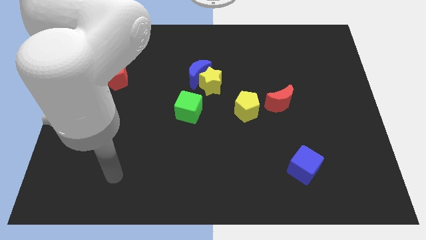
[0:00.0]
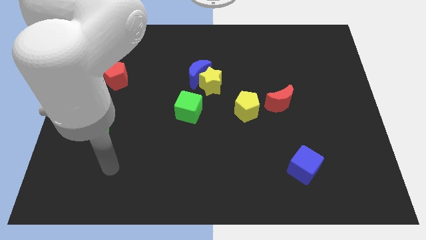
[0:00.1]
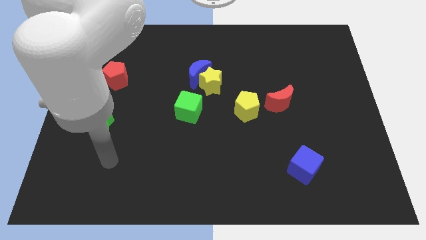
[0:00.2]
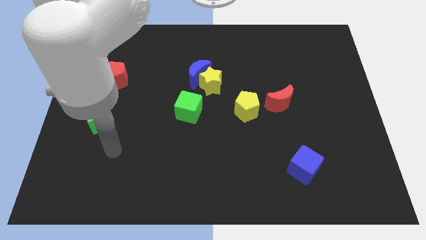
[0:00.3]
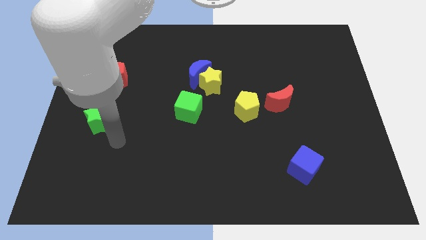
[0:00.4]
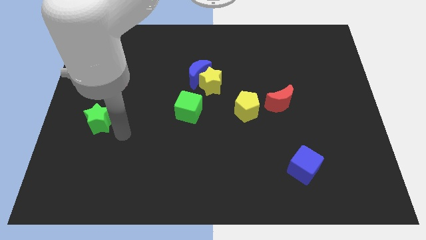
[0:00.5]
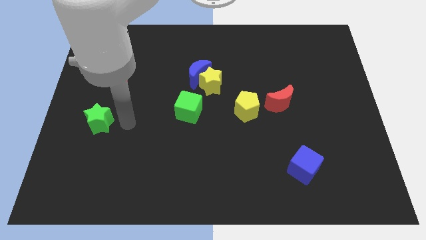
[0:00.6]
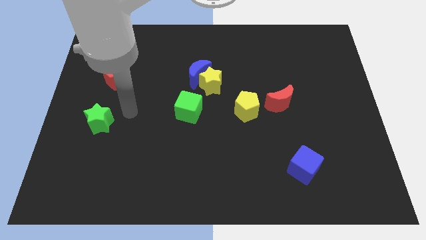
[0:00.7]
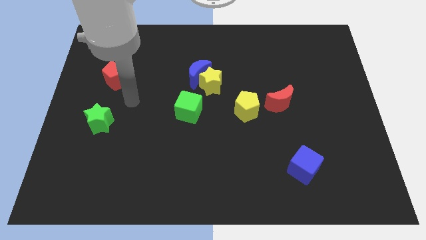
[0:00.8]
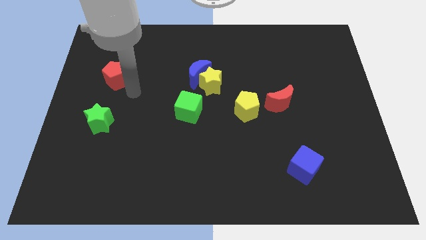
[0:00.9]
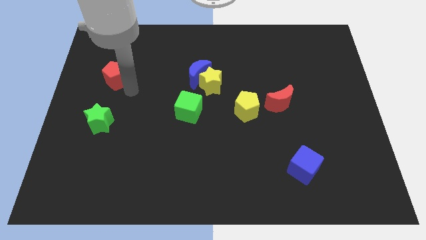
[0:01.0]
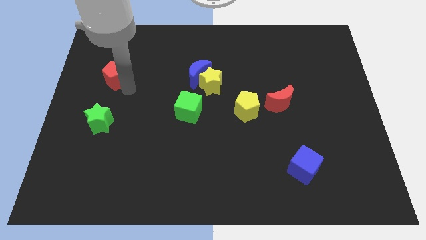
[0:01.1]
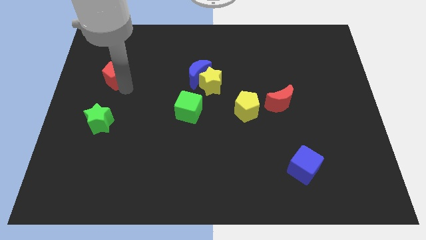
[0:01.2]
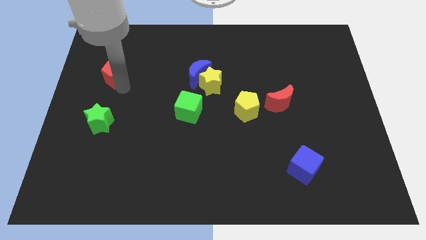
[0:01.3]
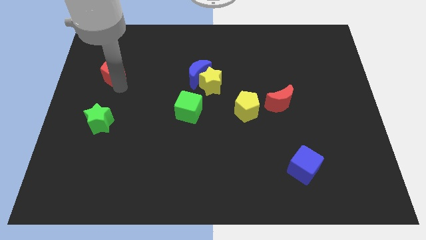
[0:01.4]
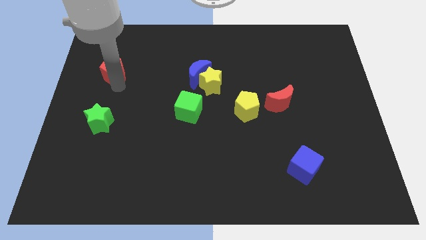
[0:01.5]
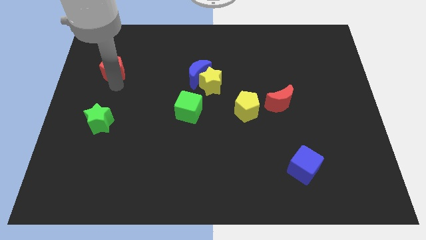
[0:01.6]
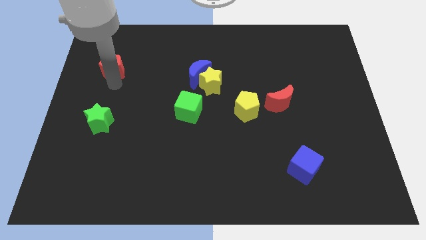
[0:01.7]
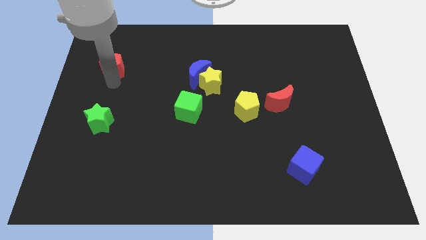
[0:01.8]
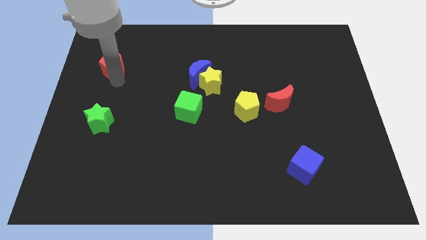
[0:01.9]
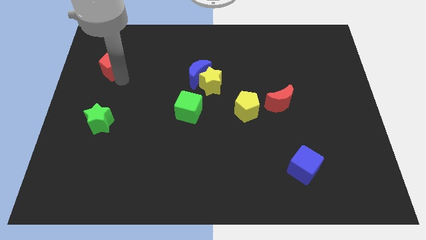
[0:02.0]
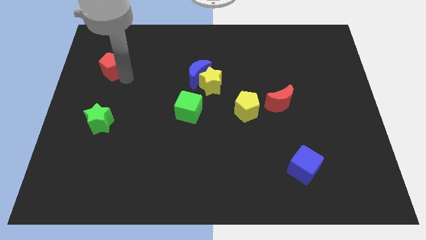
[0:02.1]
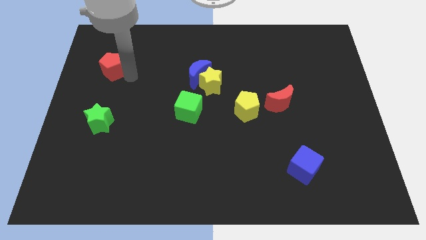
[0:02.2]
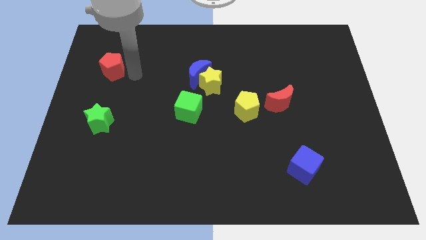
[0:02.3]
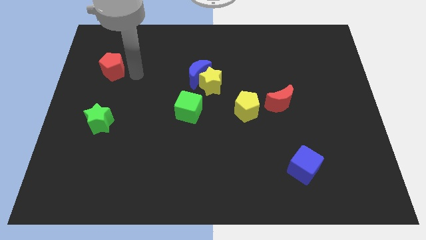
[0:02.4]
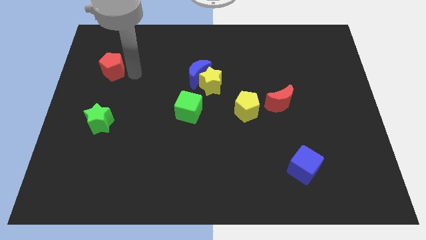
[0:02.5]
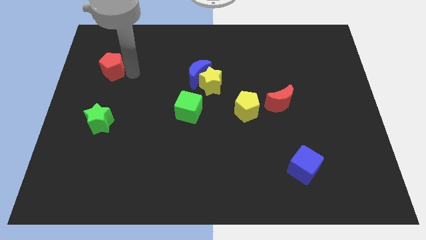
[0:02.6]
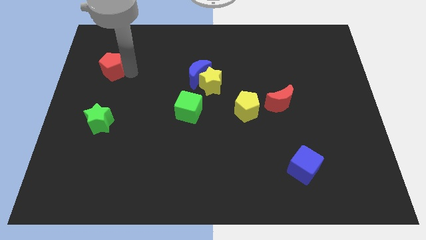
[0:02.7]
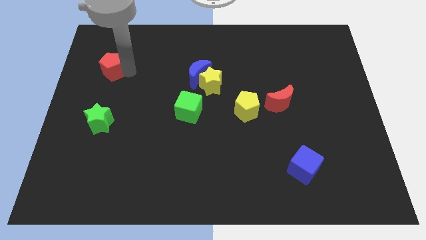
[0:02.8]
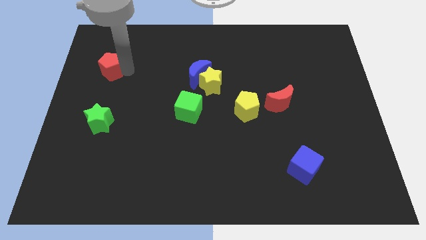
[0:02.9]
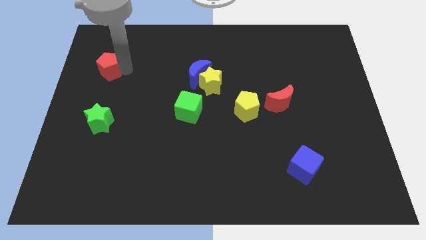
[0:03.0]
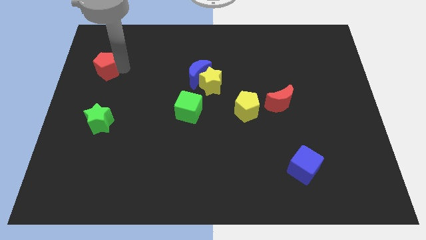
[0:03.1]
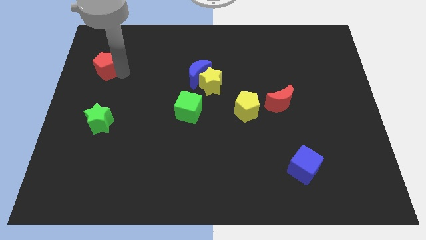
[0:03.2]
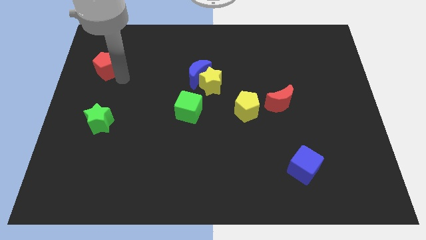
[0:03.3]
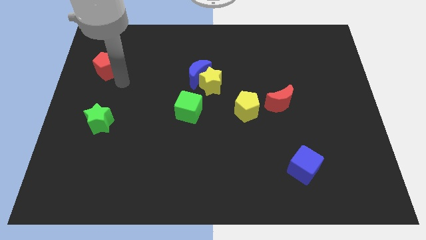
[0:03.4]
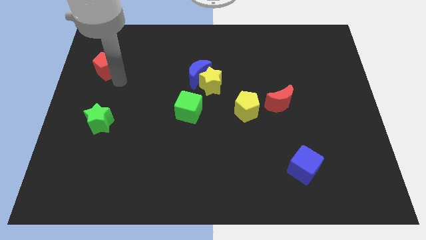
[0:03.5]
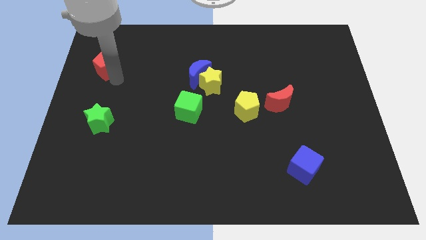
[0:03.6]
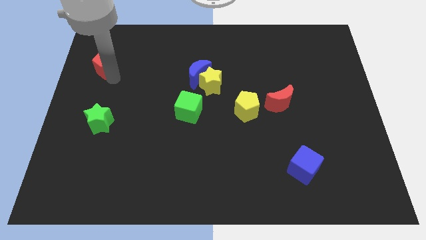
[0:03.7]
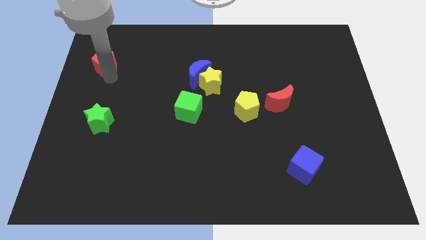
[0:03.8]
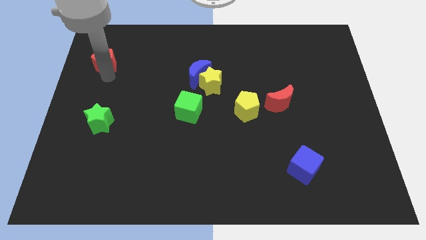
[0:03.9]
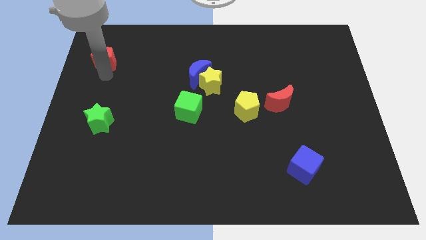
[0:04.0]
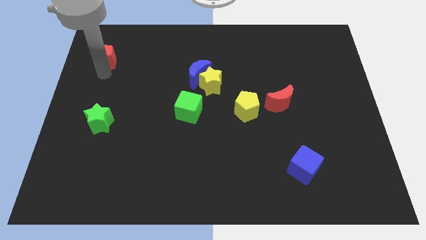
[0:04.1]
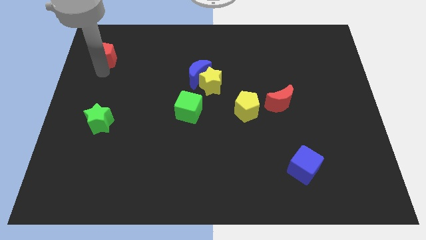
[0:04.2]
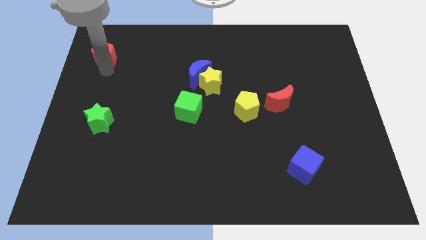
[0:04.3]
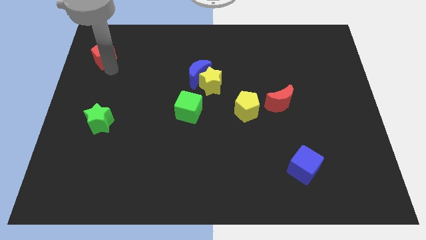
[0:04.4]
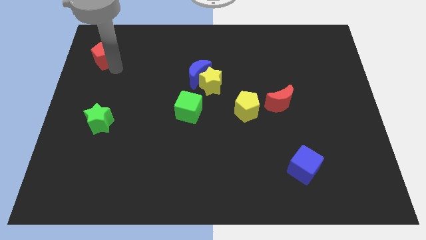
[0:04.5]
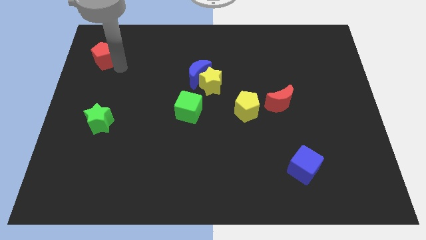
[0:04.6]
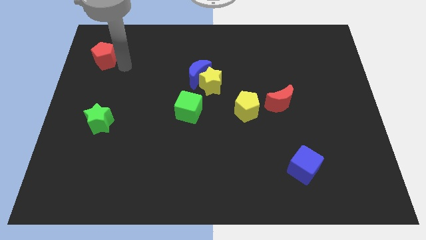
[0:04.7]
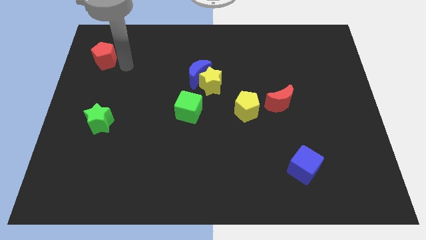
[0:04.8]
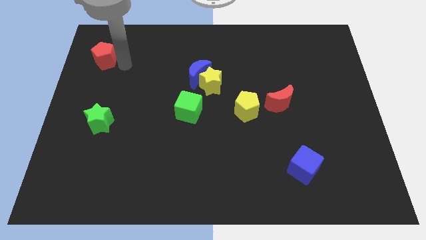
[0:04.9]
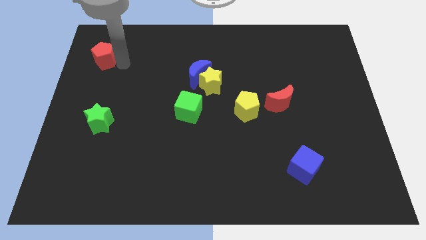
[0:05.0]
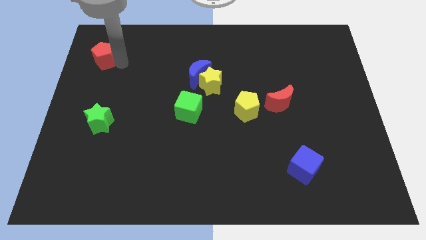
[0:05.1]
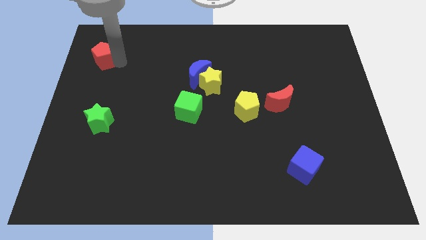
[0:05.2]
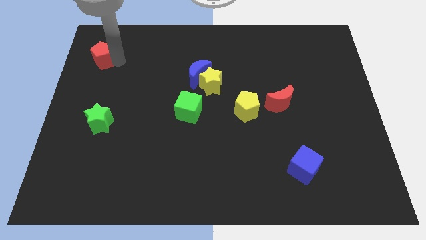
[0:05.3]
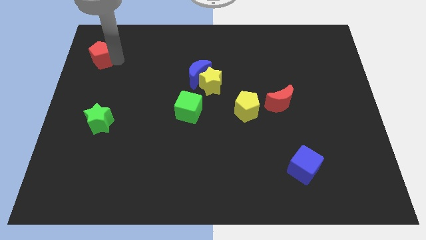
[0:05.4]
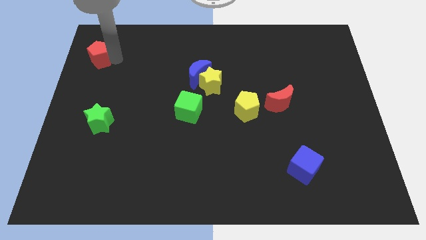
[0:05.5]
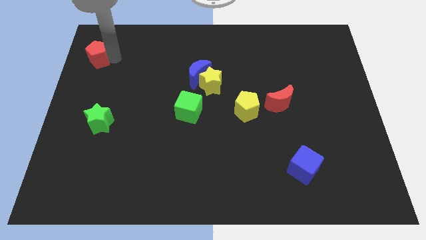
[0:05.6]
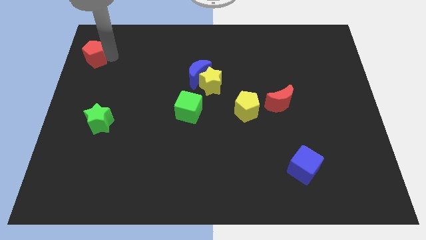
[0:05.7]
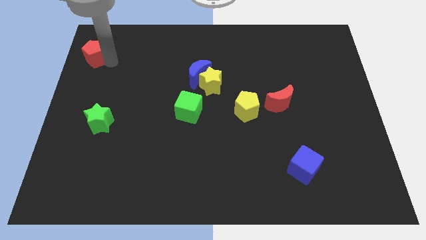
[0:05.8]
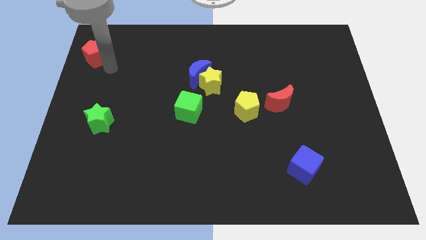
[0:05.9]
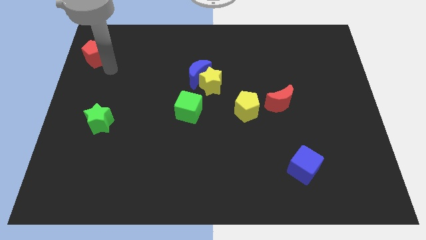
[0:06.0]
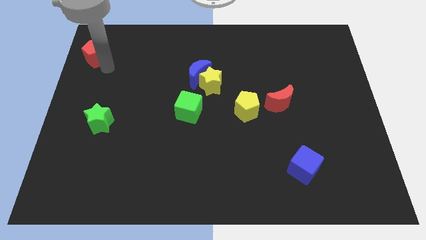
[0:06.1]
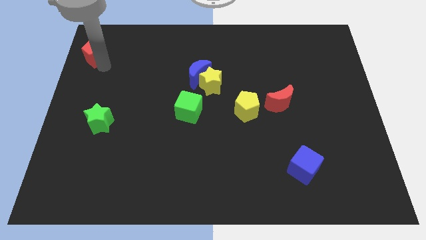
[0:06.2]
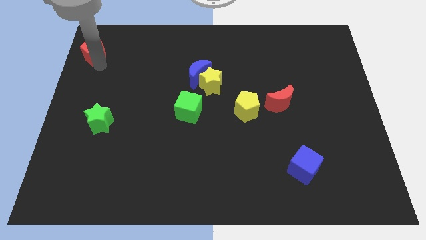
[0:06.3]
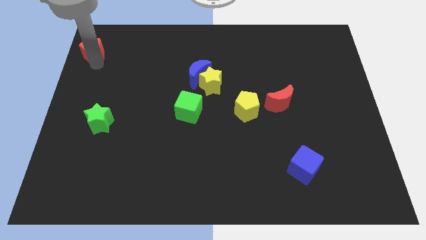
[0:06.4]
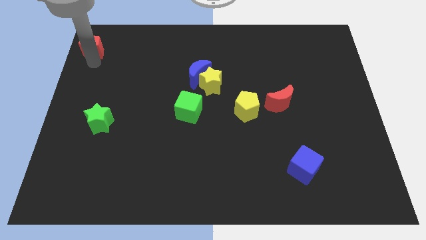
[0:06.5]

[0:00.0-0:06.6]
put the red pentagon to the top left
